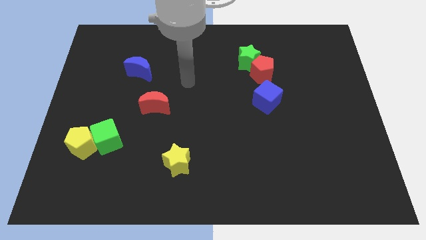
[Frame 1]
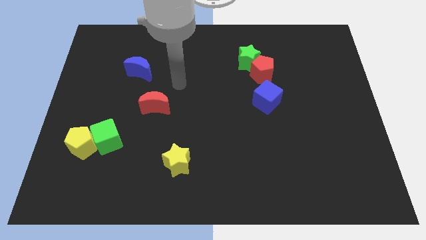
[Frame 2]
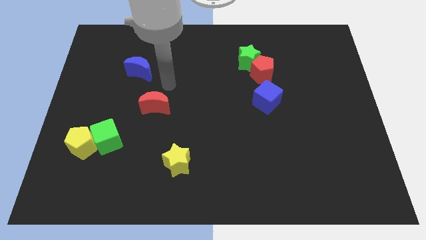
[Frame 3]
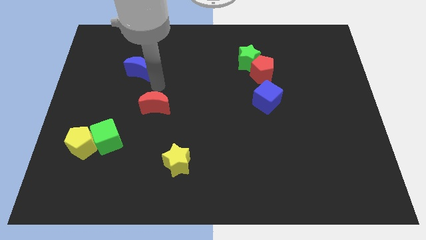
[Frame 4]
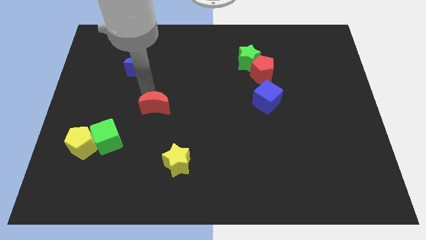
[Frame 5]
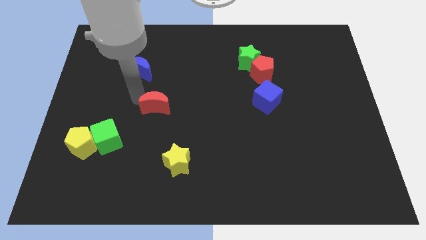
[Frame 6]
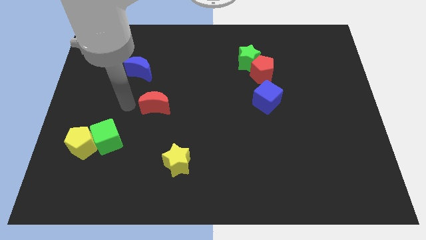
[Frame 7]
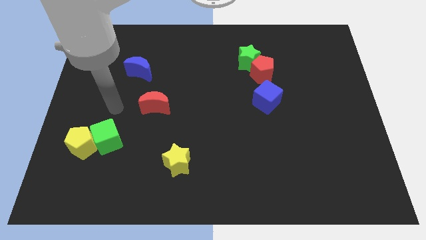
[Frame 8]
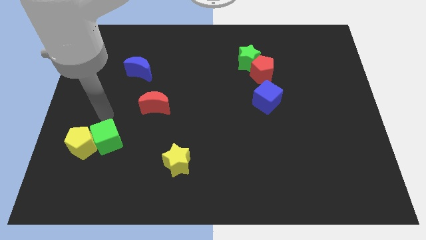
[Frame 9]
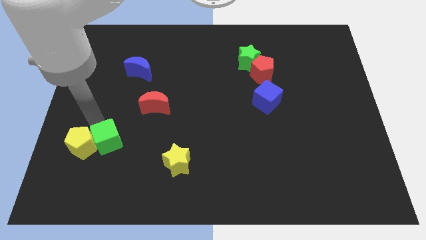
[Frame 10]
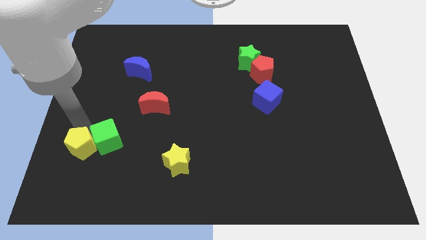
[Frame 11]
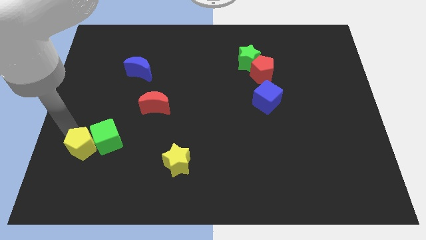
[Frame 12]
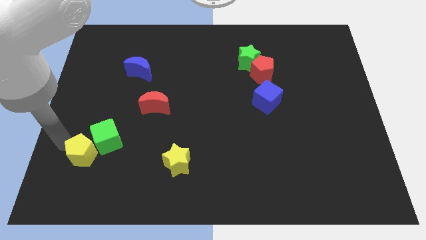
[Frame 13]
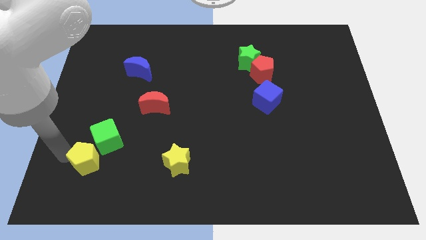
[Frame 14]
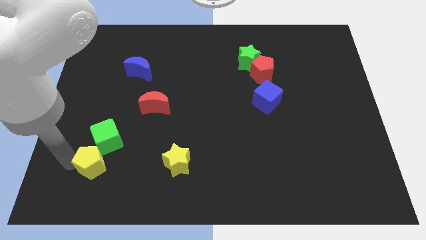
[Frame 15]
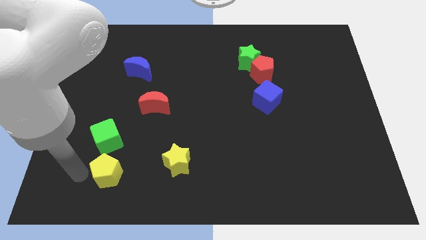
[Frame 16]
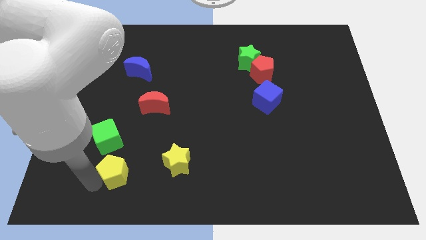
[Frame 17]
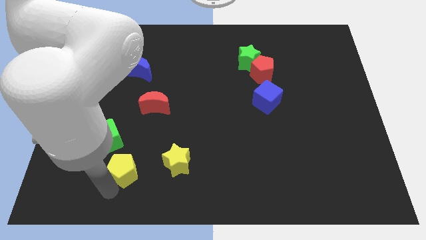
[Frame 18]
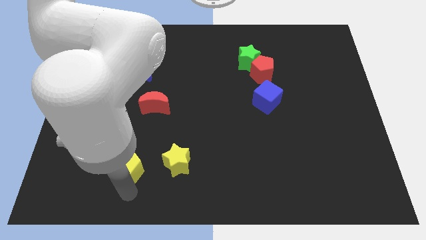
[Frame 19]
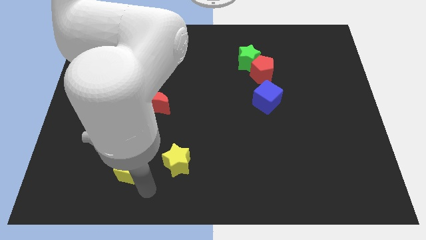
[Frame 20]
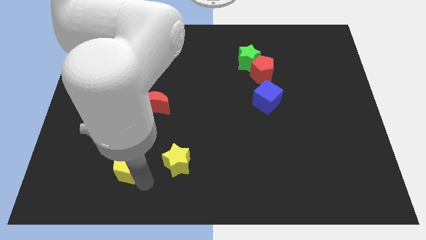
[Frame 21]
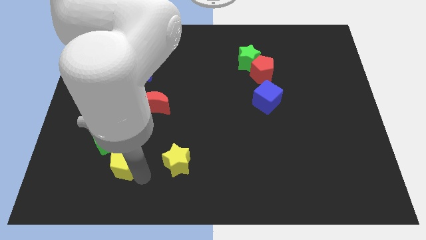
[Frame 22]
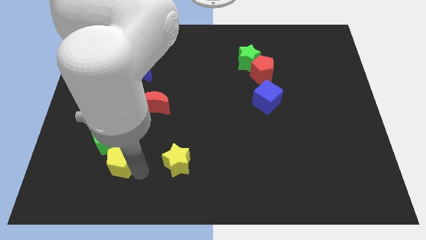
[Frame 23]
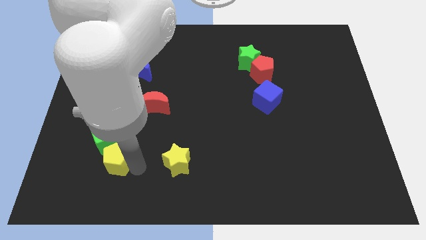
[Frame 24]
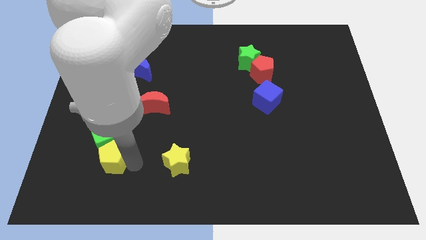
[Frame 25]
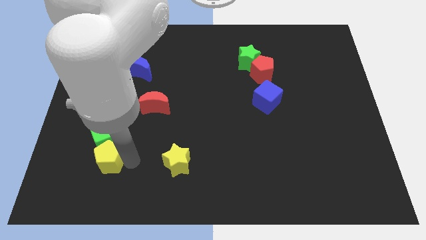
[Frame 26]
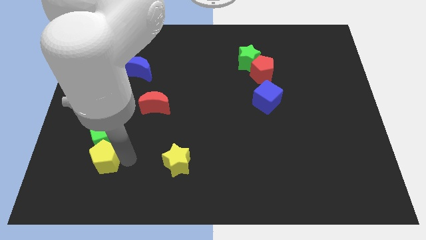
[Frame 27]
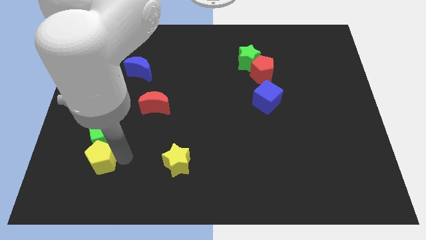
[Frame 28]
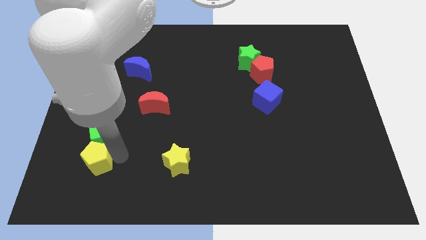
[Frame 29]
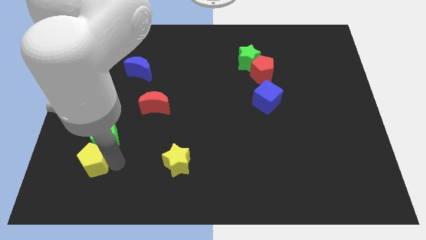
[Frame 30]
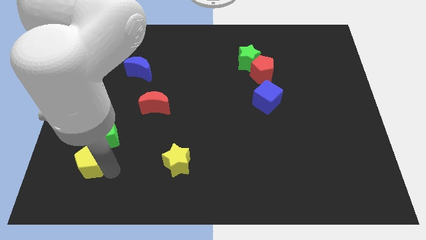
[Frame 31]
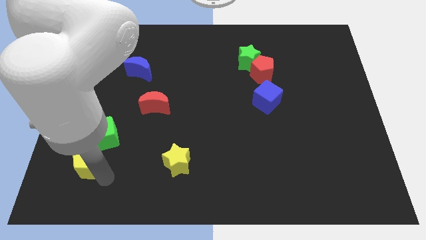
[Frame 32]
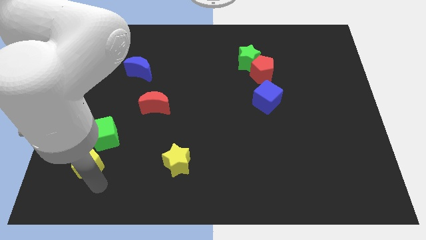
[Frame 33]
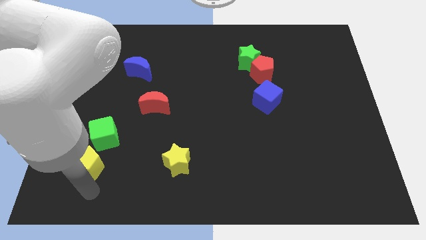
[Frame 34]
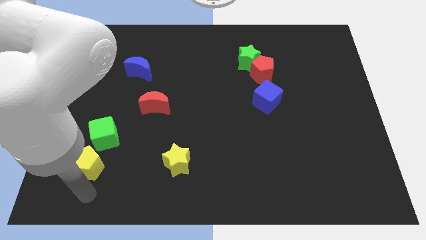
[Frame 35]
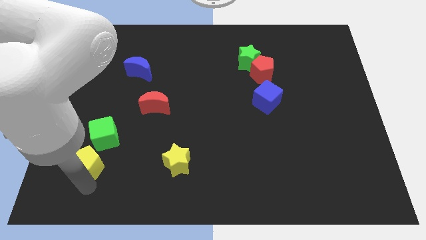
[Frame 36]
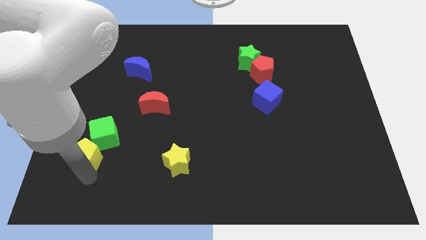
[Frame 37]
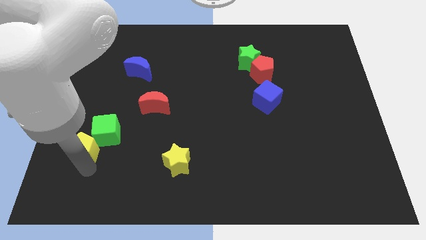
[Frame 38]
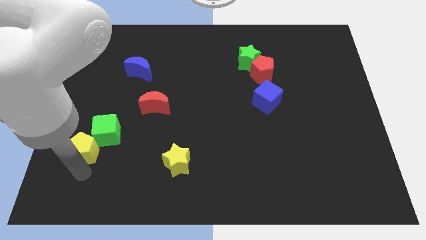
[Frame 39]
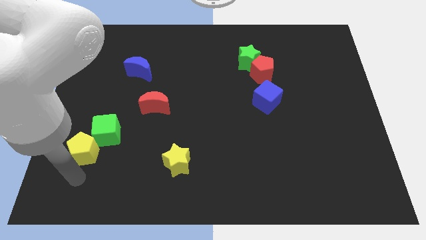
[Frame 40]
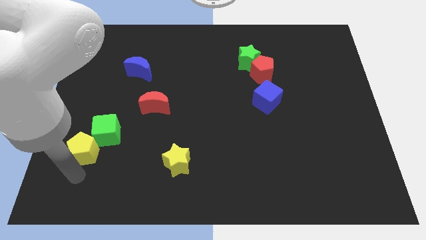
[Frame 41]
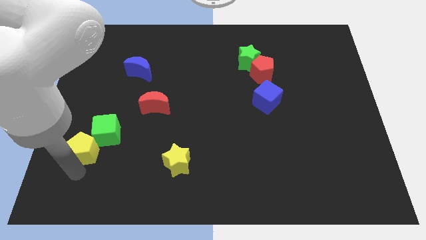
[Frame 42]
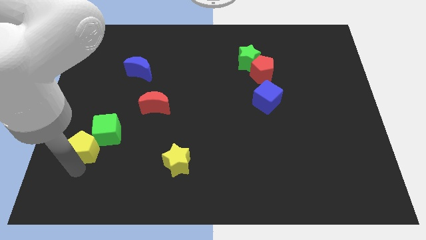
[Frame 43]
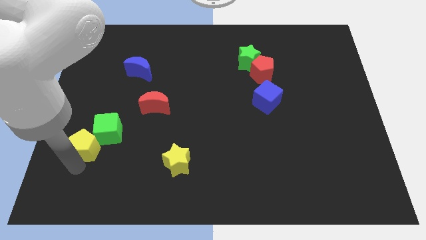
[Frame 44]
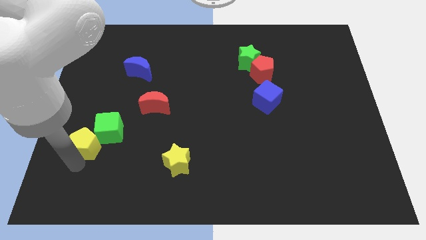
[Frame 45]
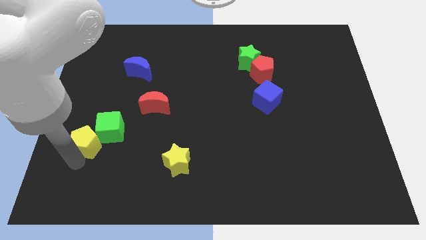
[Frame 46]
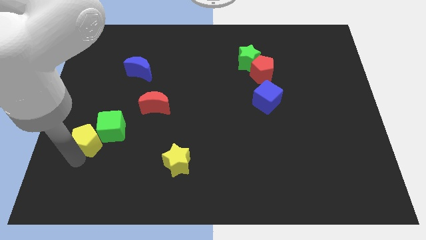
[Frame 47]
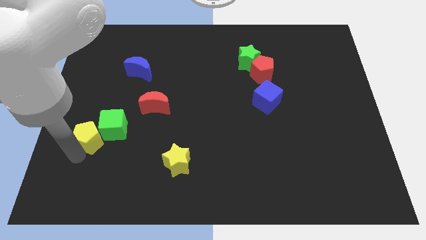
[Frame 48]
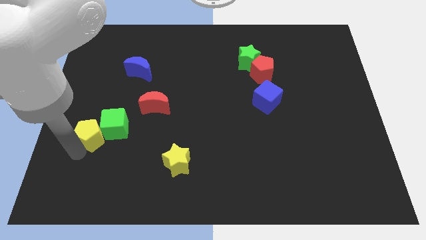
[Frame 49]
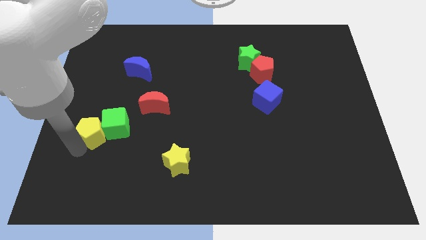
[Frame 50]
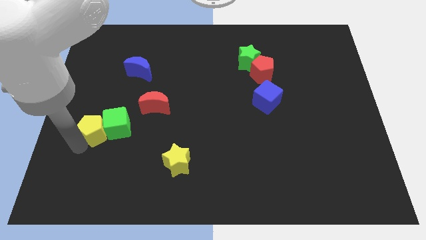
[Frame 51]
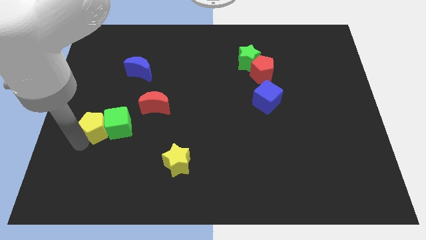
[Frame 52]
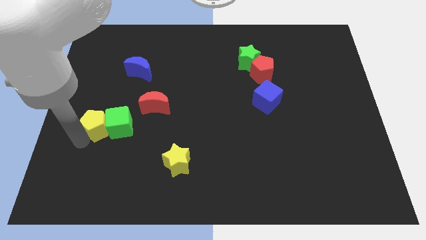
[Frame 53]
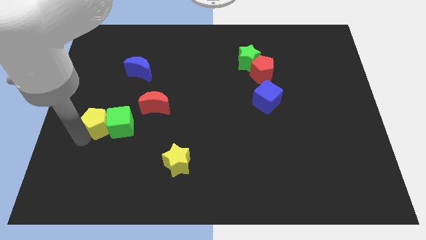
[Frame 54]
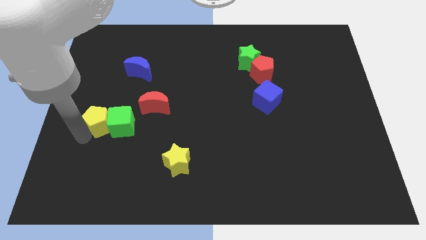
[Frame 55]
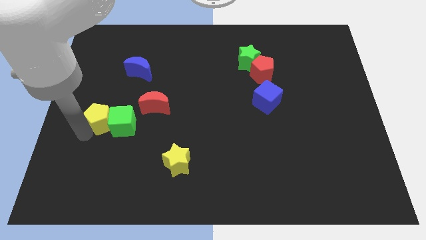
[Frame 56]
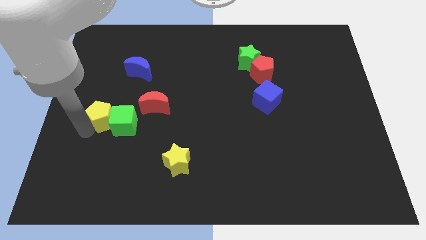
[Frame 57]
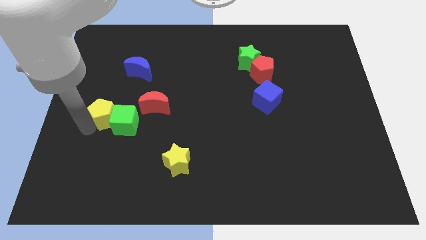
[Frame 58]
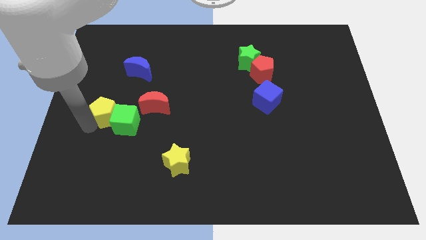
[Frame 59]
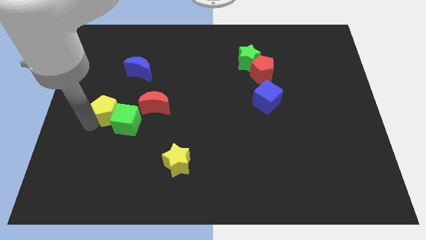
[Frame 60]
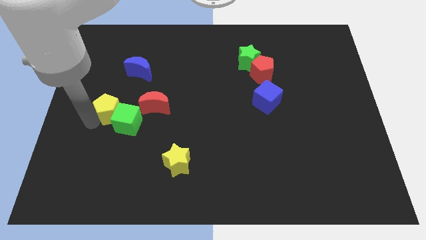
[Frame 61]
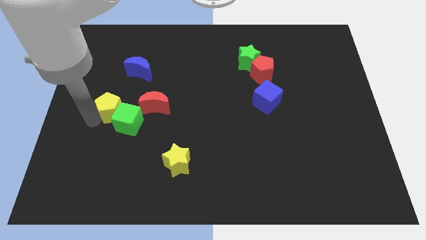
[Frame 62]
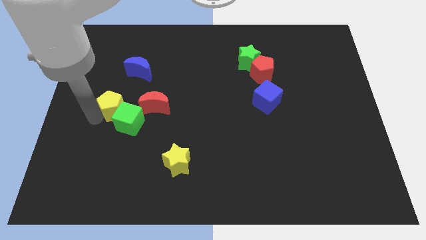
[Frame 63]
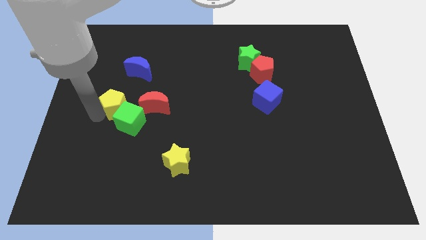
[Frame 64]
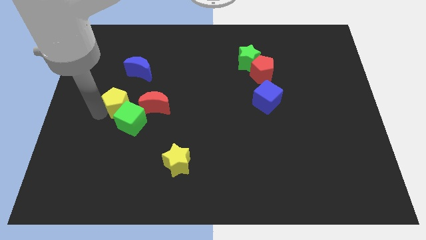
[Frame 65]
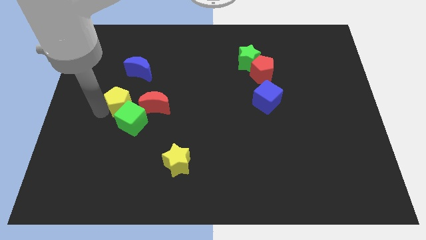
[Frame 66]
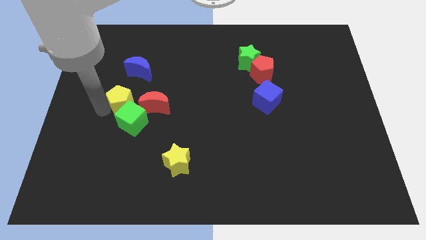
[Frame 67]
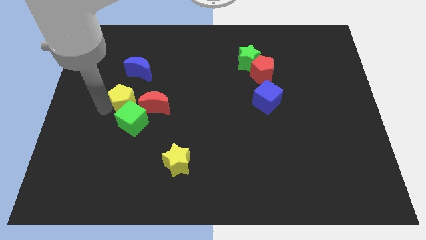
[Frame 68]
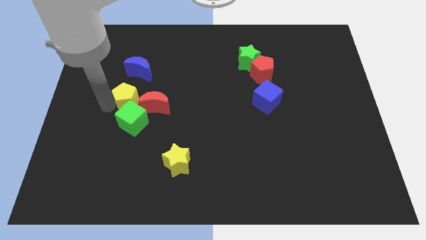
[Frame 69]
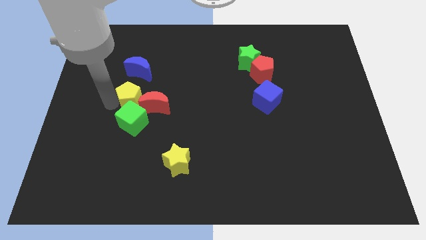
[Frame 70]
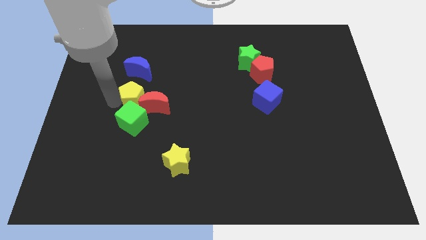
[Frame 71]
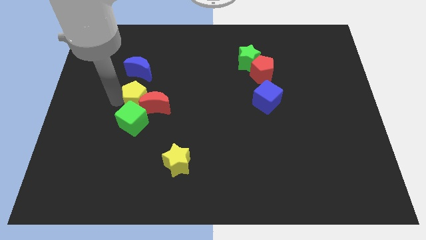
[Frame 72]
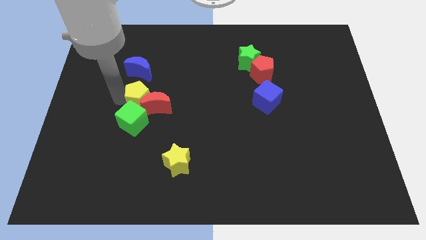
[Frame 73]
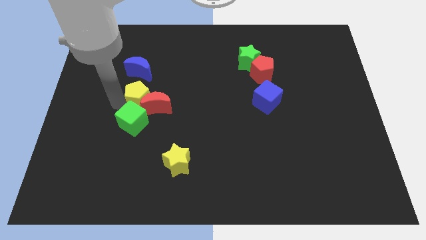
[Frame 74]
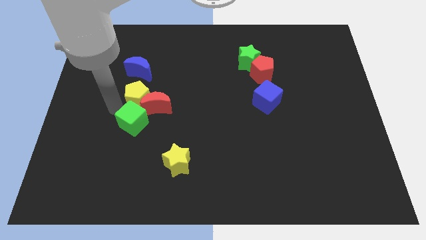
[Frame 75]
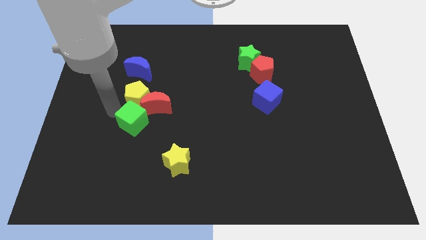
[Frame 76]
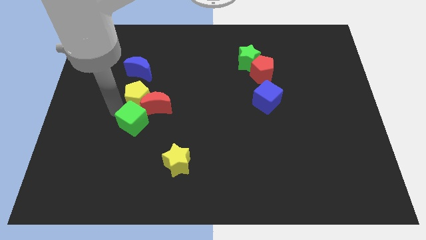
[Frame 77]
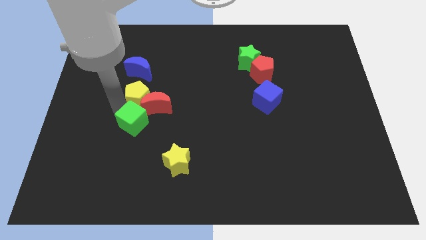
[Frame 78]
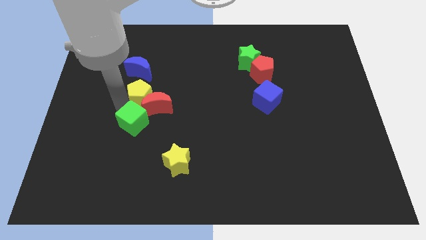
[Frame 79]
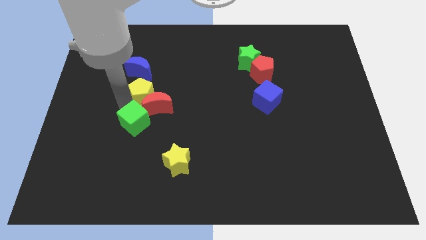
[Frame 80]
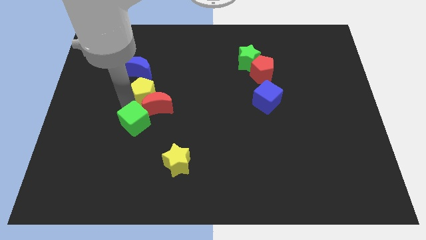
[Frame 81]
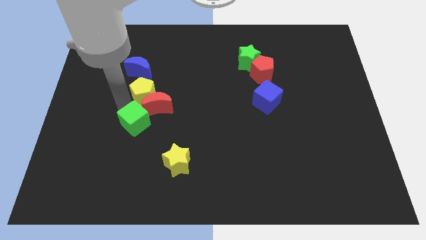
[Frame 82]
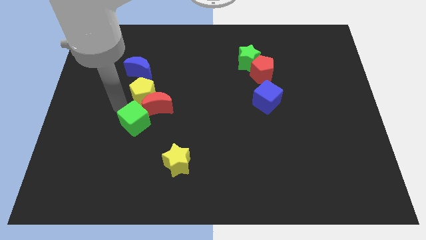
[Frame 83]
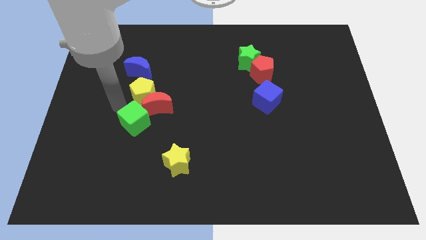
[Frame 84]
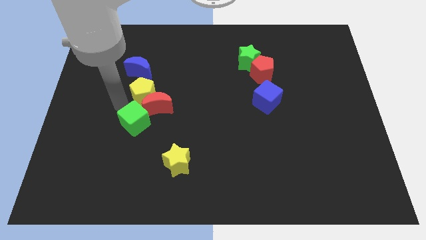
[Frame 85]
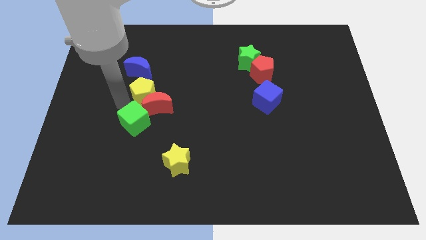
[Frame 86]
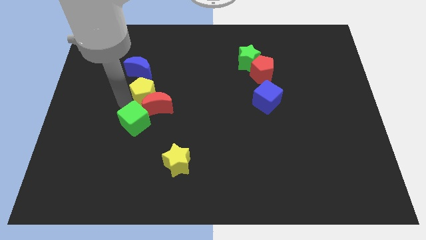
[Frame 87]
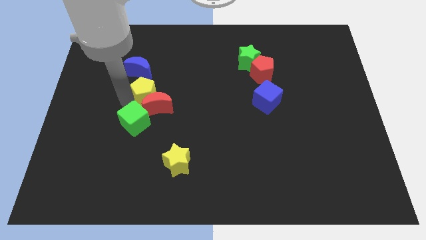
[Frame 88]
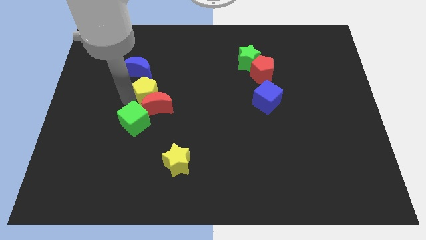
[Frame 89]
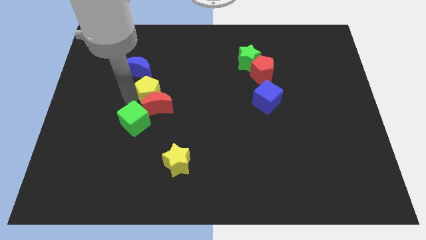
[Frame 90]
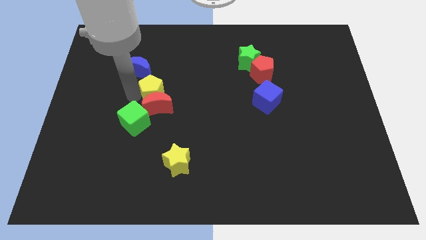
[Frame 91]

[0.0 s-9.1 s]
push the yellow pentagon diagonally up and to the right
